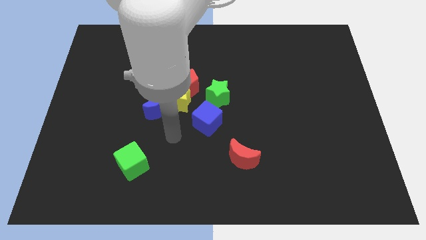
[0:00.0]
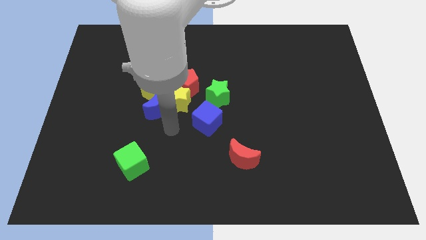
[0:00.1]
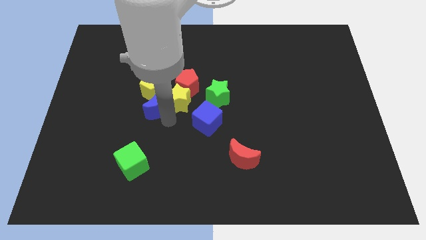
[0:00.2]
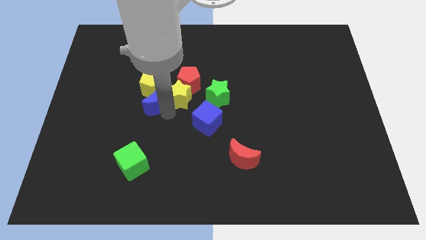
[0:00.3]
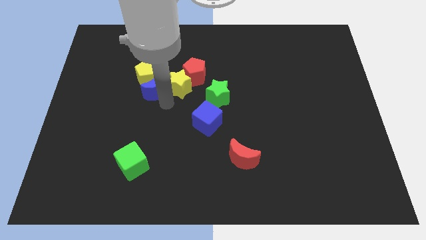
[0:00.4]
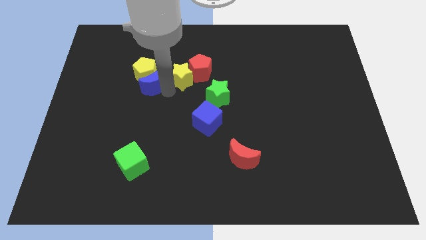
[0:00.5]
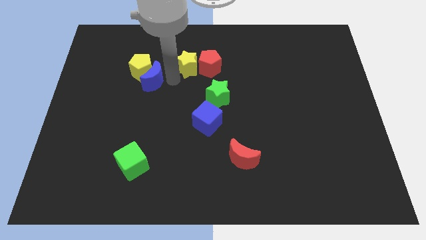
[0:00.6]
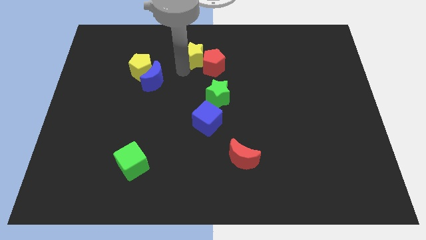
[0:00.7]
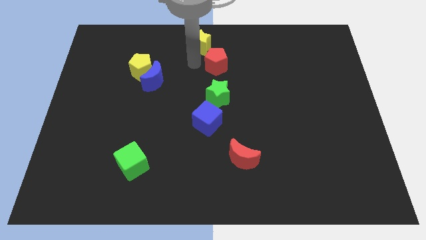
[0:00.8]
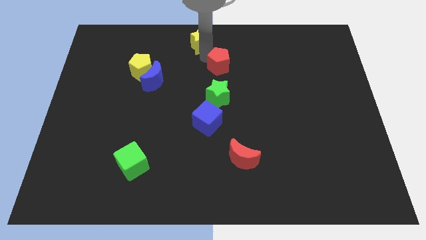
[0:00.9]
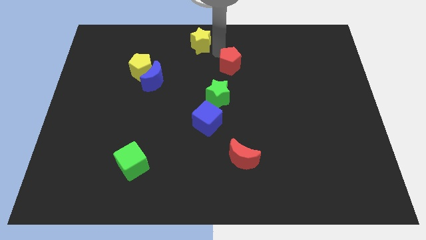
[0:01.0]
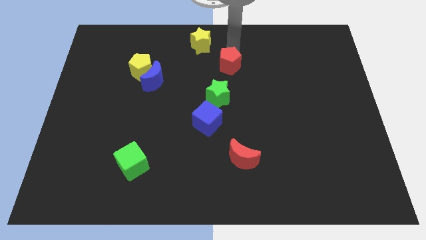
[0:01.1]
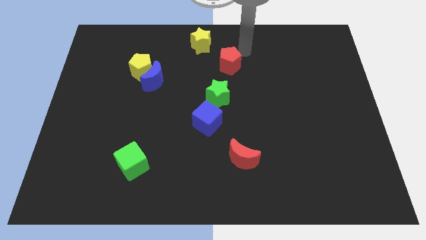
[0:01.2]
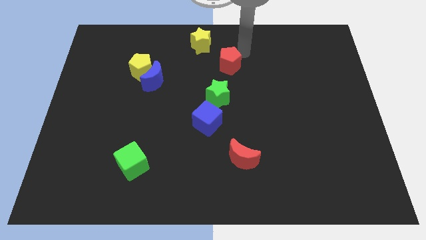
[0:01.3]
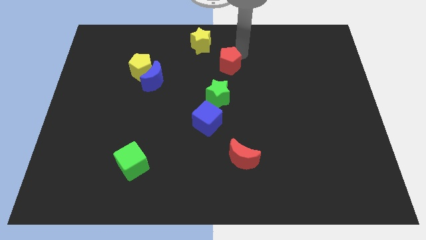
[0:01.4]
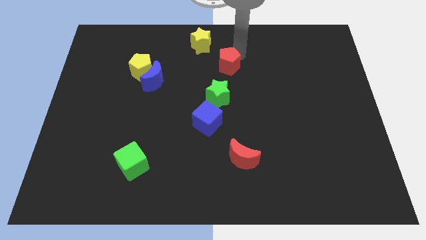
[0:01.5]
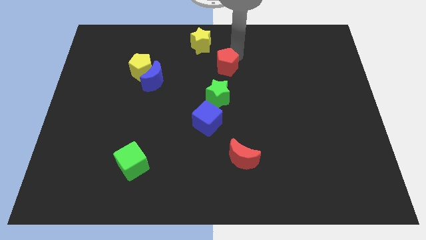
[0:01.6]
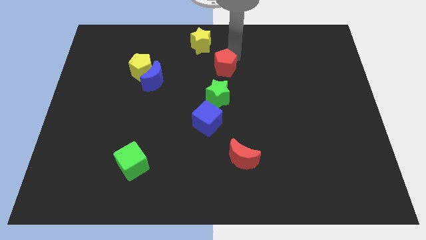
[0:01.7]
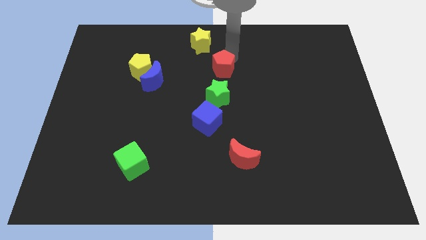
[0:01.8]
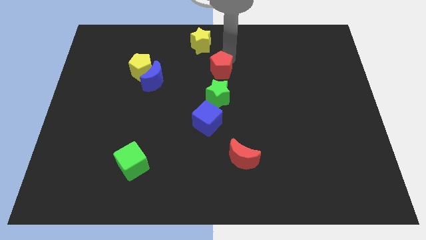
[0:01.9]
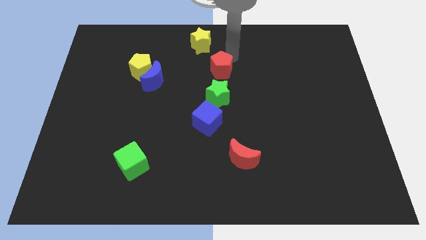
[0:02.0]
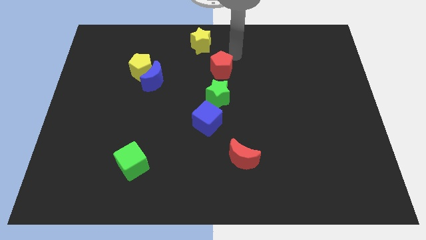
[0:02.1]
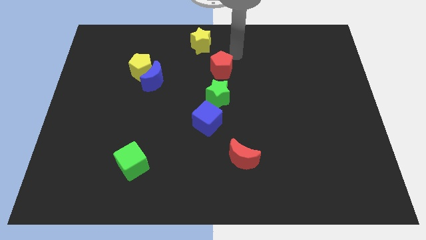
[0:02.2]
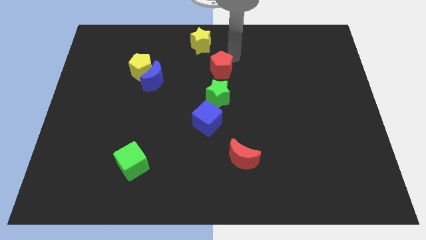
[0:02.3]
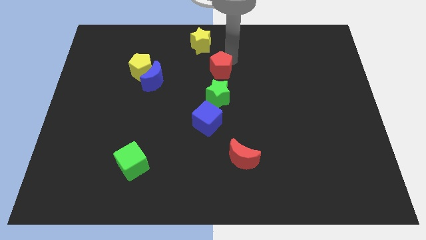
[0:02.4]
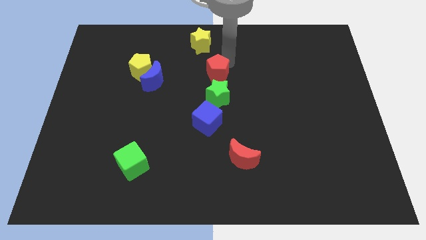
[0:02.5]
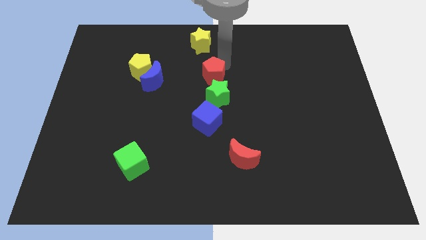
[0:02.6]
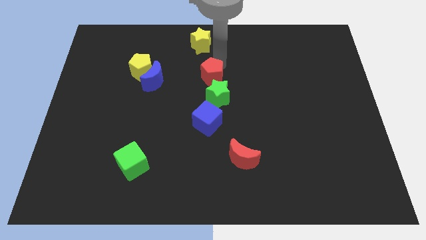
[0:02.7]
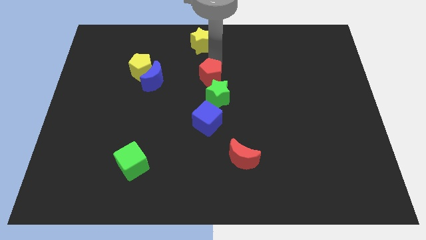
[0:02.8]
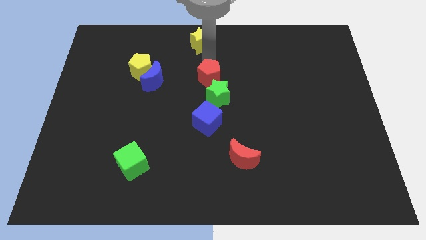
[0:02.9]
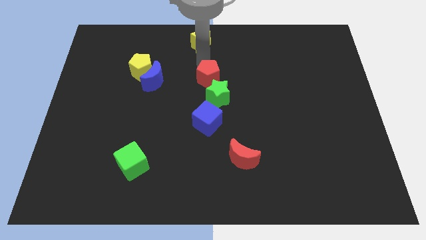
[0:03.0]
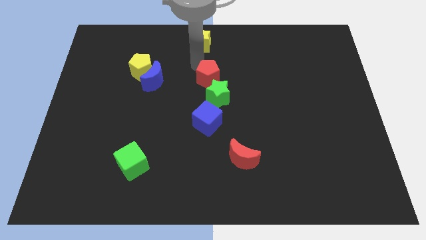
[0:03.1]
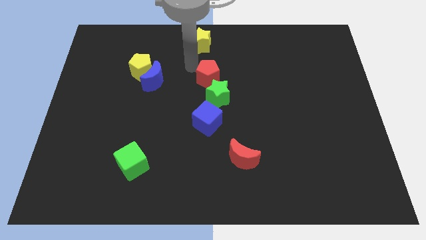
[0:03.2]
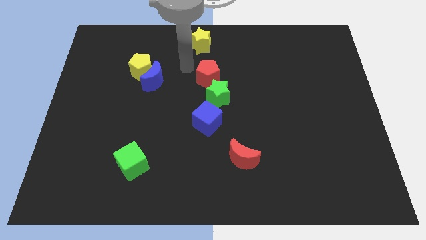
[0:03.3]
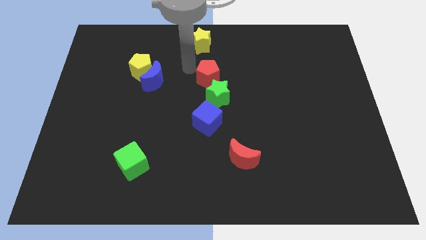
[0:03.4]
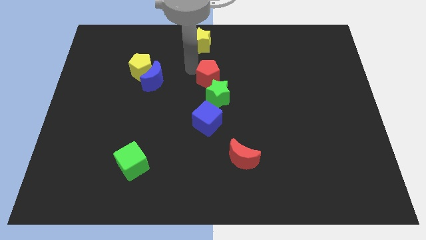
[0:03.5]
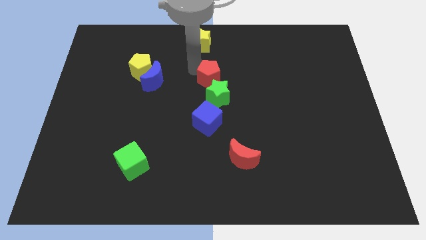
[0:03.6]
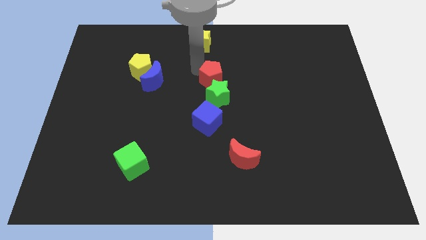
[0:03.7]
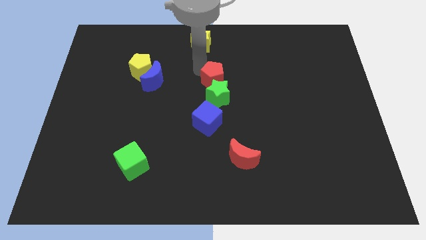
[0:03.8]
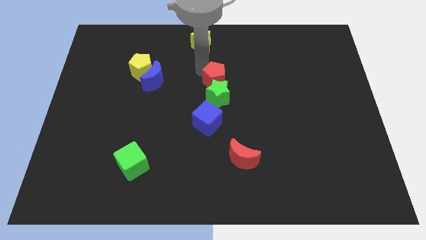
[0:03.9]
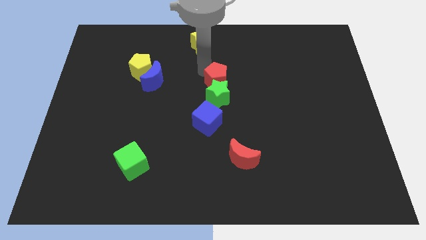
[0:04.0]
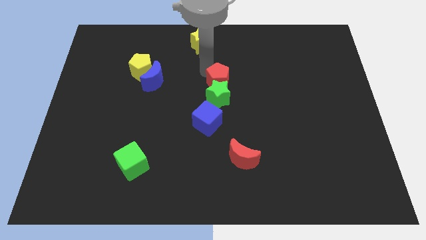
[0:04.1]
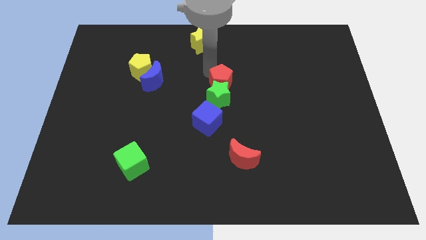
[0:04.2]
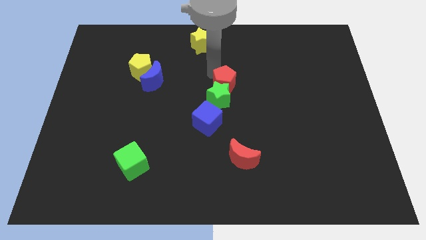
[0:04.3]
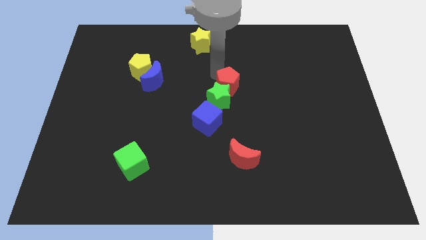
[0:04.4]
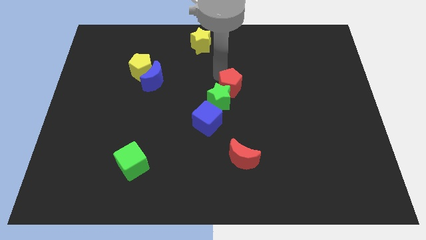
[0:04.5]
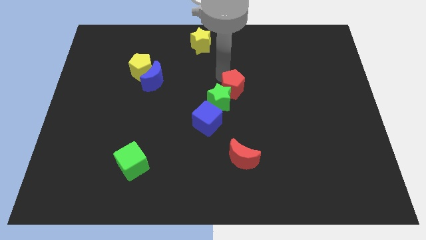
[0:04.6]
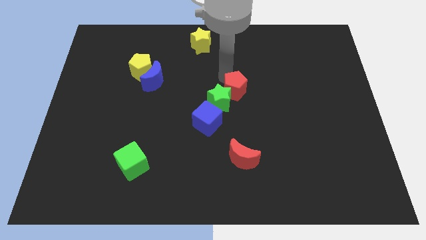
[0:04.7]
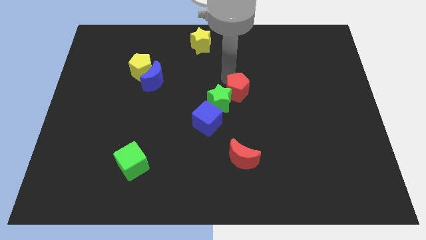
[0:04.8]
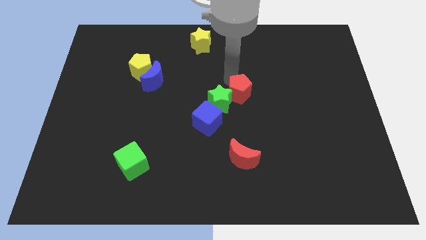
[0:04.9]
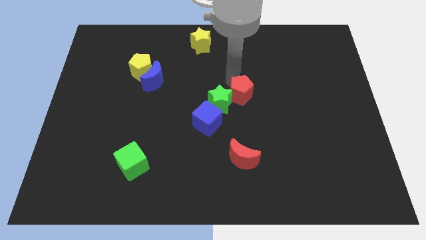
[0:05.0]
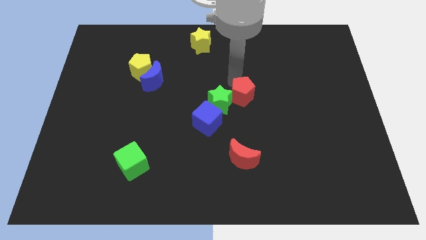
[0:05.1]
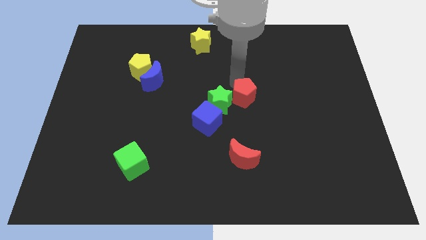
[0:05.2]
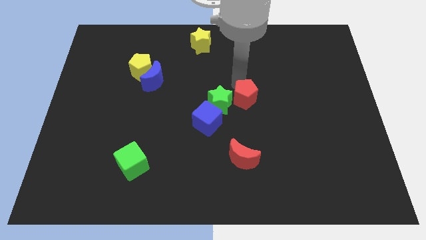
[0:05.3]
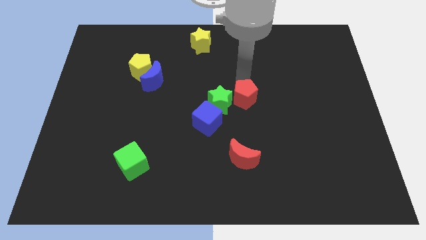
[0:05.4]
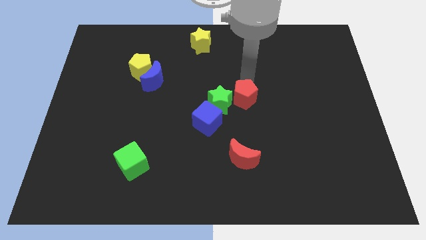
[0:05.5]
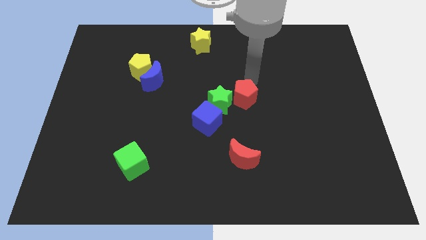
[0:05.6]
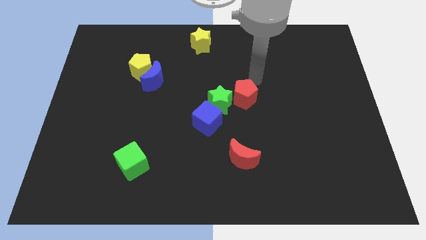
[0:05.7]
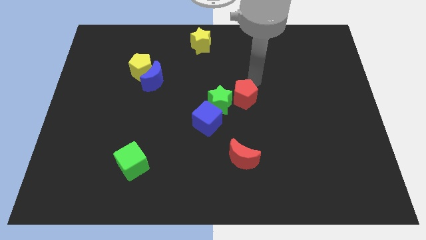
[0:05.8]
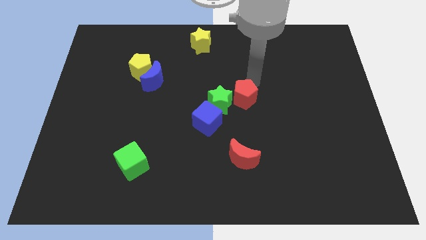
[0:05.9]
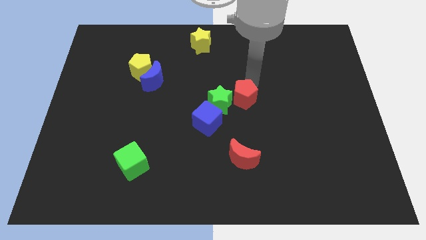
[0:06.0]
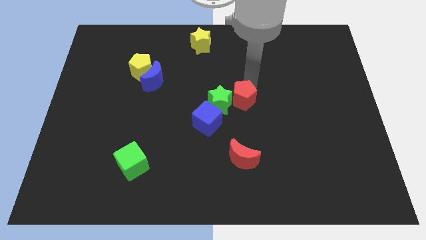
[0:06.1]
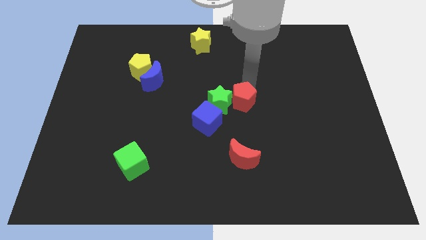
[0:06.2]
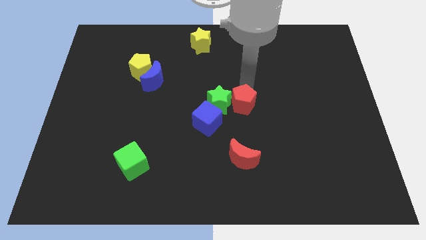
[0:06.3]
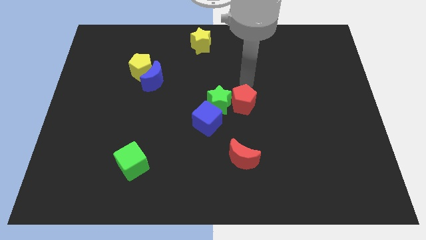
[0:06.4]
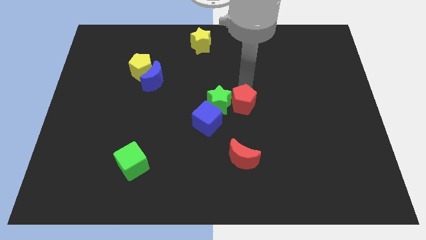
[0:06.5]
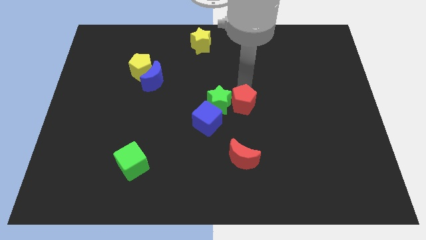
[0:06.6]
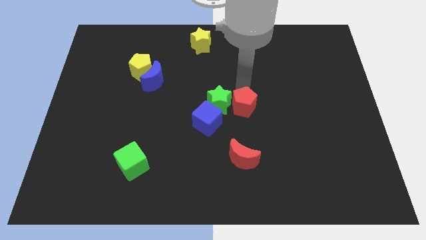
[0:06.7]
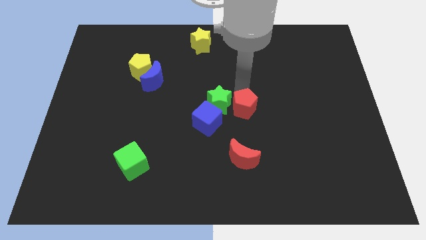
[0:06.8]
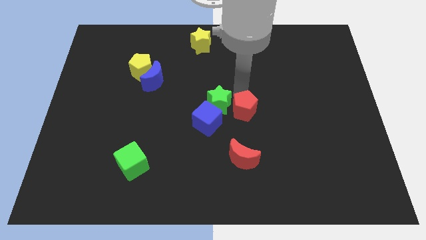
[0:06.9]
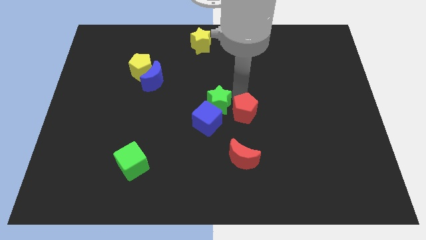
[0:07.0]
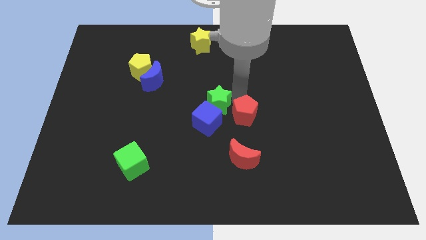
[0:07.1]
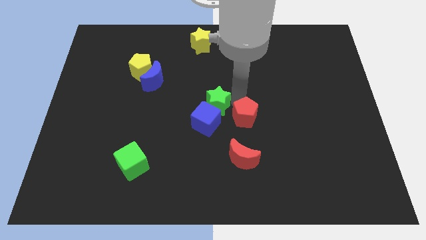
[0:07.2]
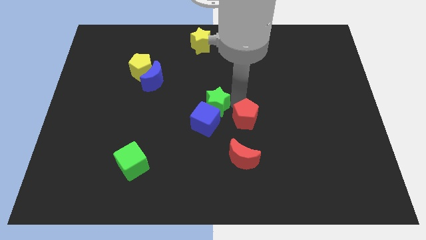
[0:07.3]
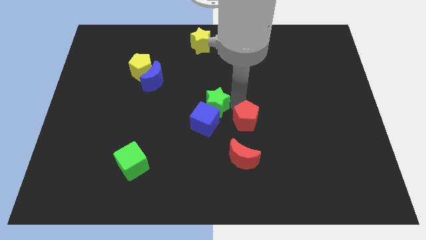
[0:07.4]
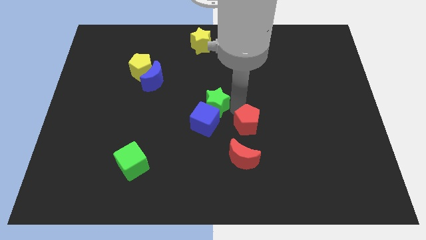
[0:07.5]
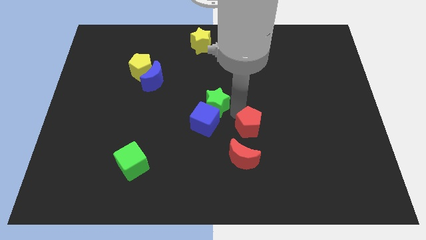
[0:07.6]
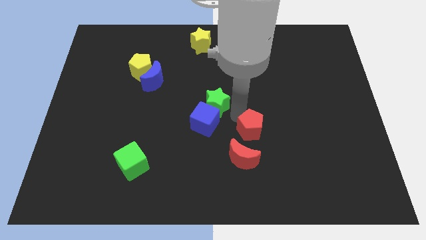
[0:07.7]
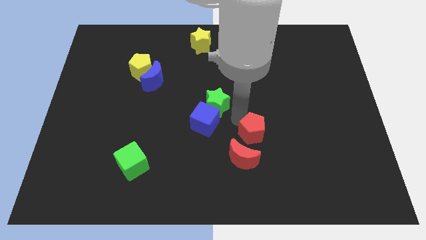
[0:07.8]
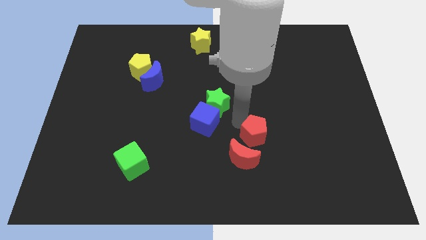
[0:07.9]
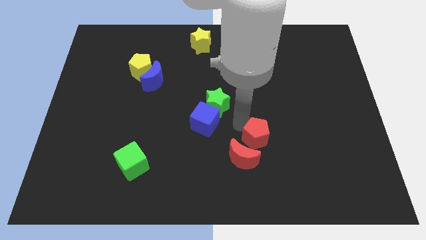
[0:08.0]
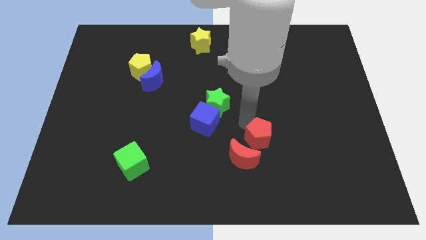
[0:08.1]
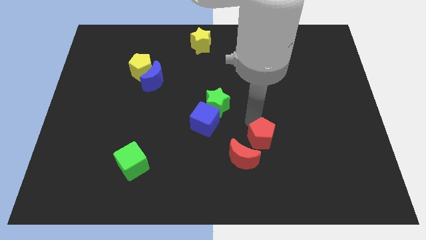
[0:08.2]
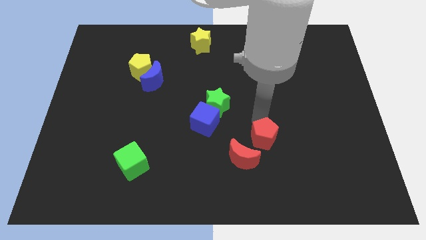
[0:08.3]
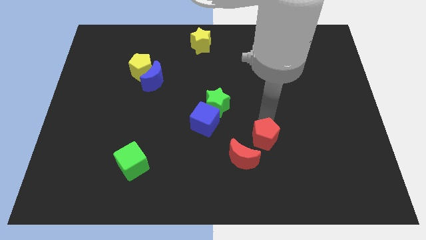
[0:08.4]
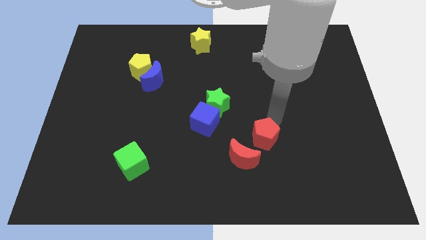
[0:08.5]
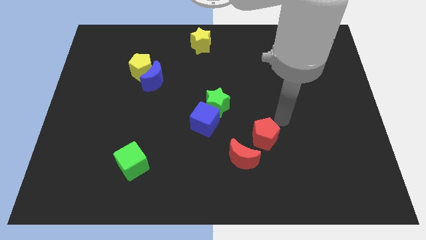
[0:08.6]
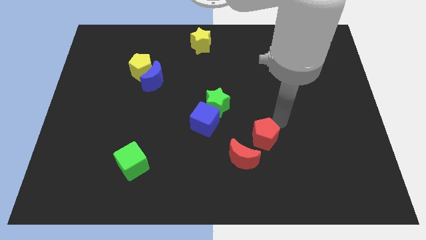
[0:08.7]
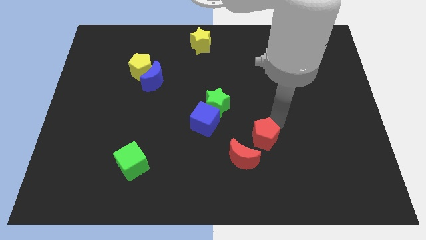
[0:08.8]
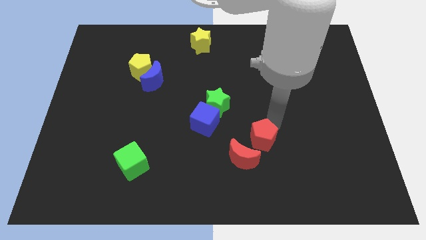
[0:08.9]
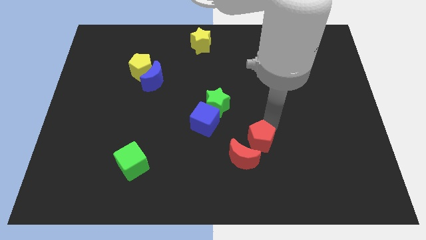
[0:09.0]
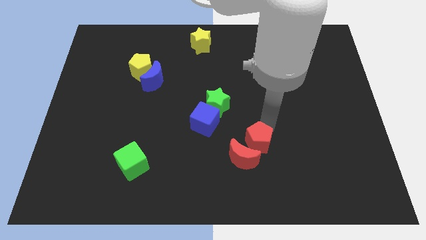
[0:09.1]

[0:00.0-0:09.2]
move the red pentagon close to the red moon
